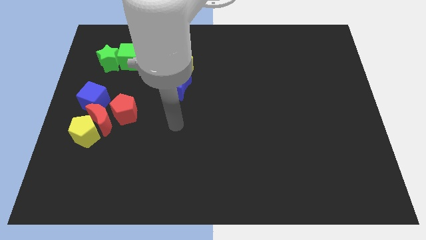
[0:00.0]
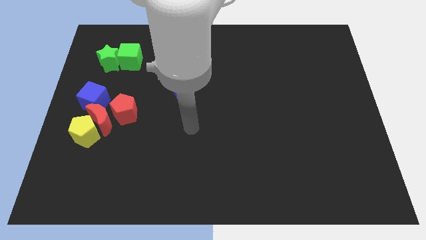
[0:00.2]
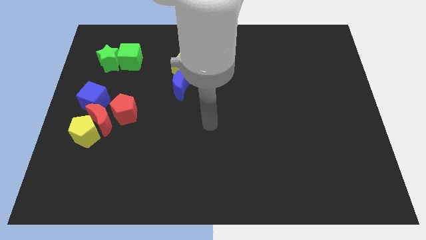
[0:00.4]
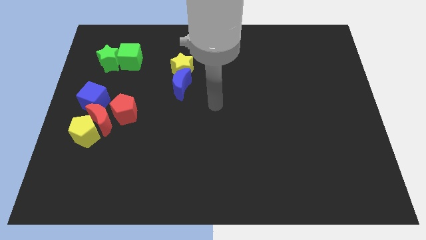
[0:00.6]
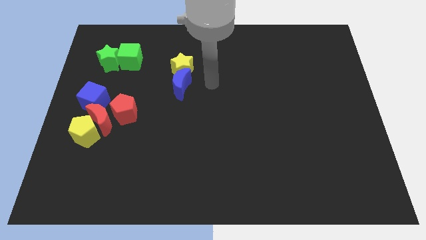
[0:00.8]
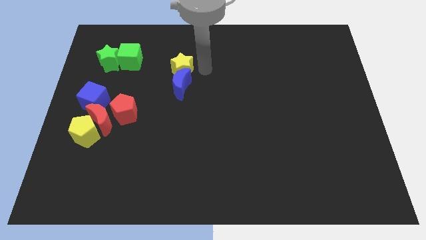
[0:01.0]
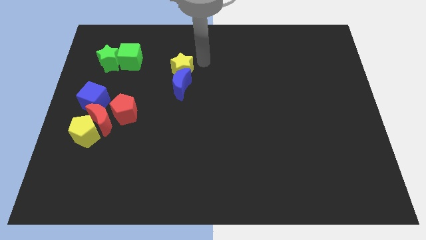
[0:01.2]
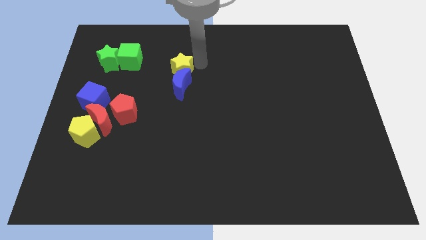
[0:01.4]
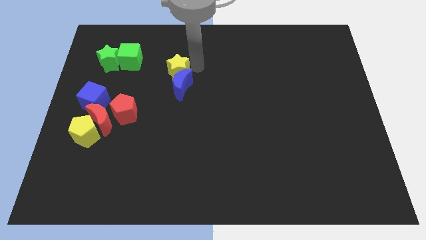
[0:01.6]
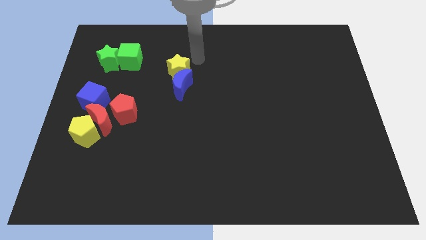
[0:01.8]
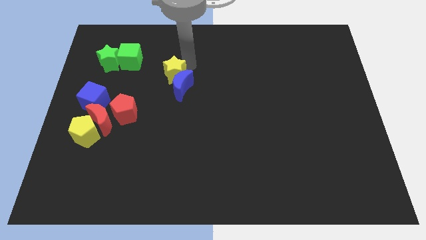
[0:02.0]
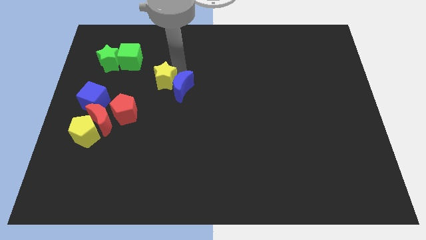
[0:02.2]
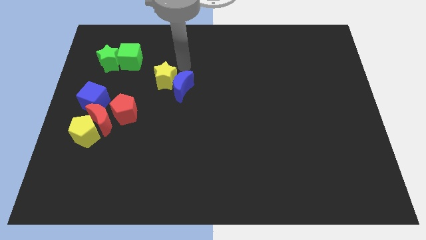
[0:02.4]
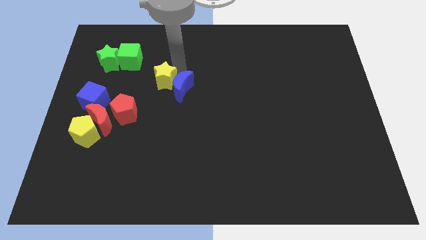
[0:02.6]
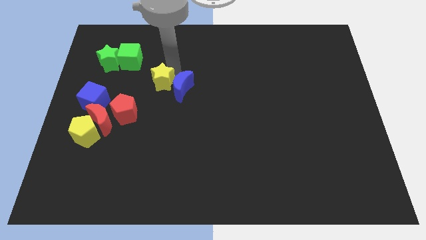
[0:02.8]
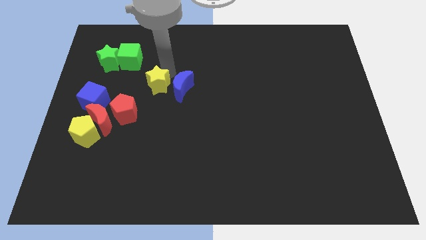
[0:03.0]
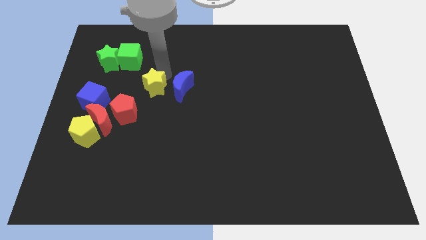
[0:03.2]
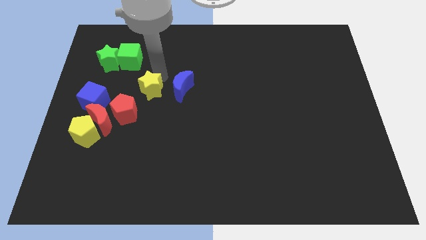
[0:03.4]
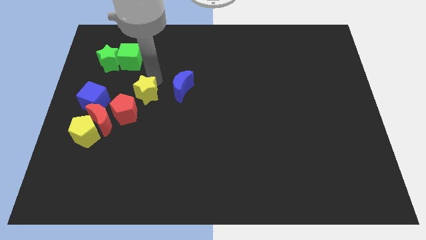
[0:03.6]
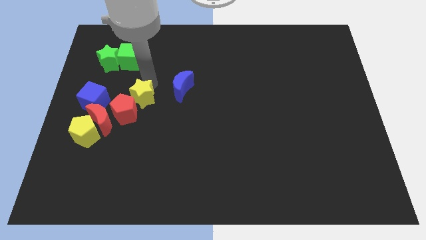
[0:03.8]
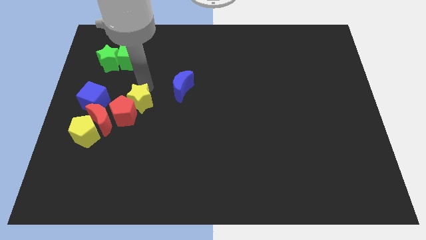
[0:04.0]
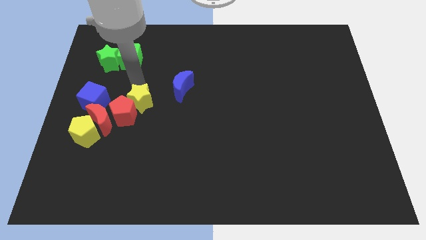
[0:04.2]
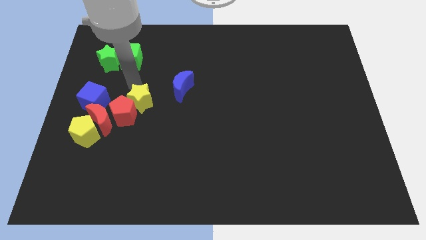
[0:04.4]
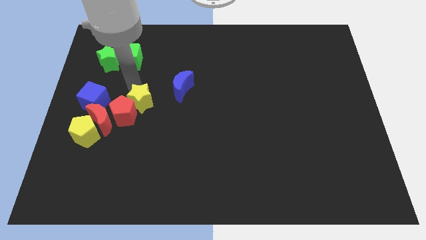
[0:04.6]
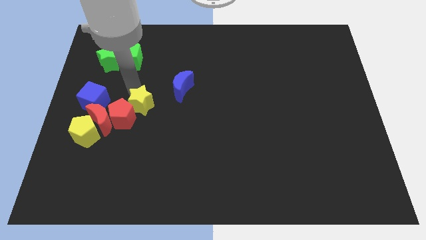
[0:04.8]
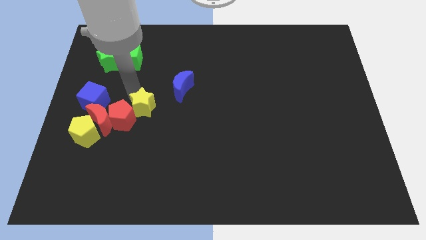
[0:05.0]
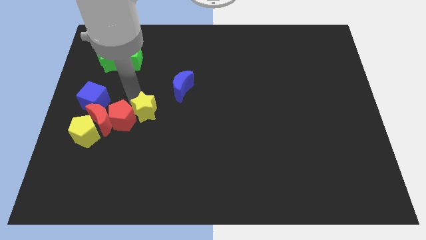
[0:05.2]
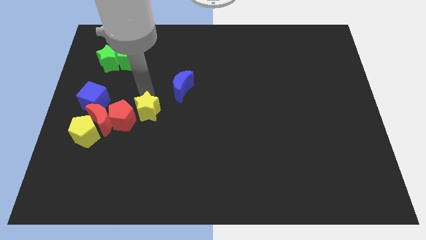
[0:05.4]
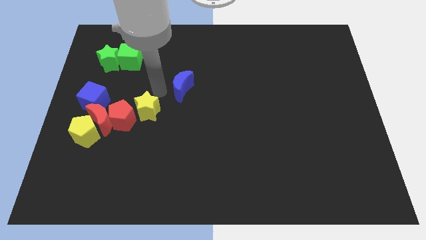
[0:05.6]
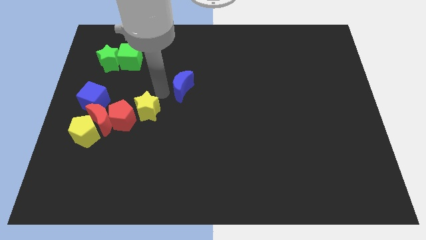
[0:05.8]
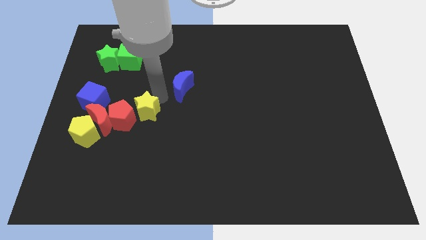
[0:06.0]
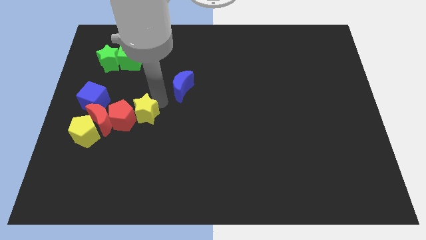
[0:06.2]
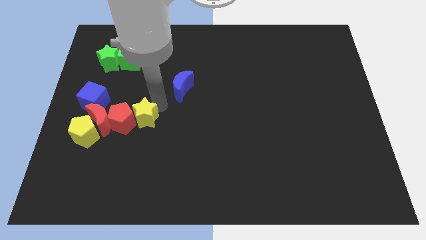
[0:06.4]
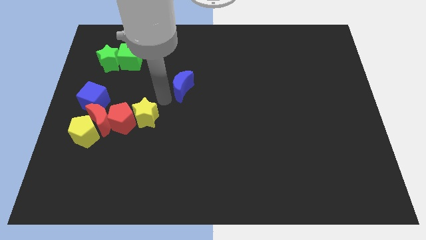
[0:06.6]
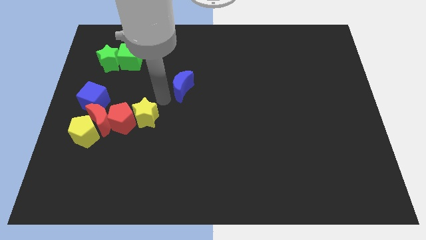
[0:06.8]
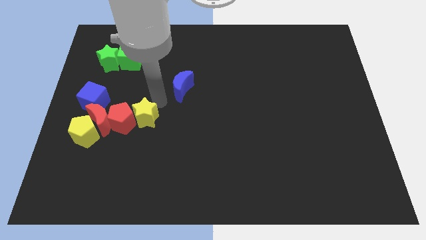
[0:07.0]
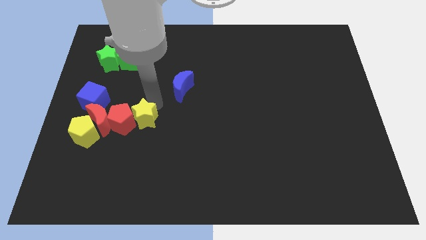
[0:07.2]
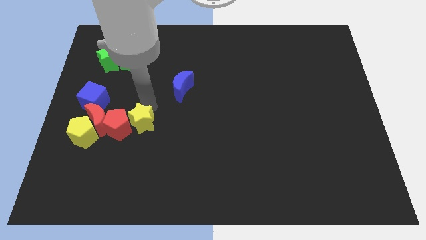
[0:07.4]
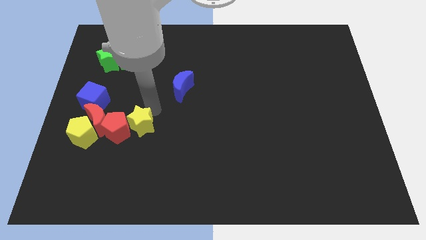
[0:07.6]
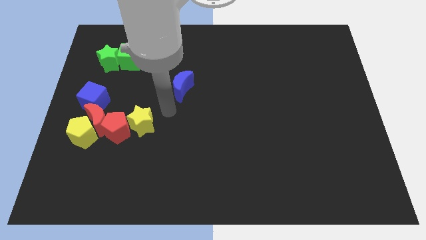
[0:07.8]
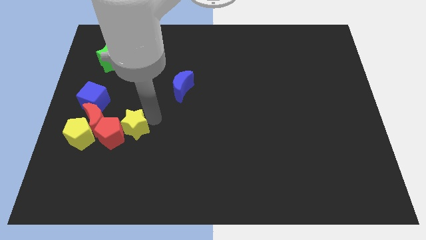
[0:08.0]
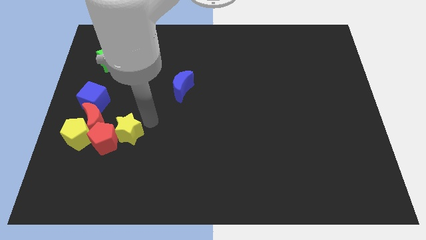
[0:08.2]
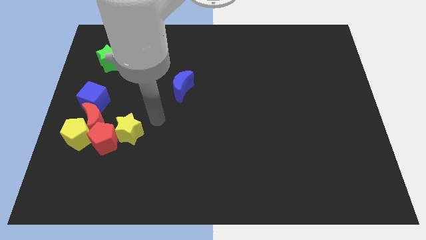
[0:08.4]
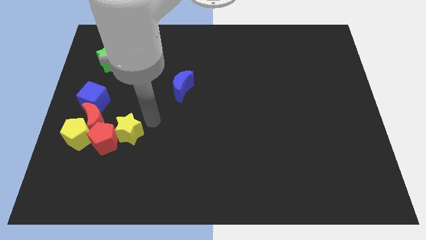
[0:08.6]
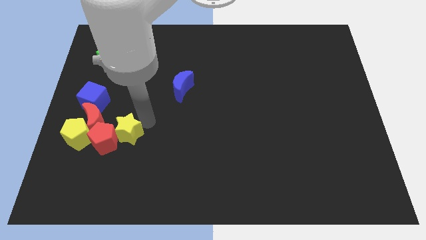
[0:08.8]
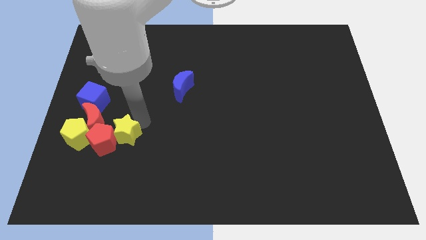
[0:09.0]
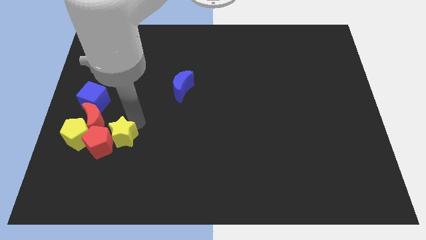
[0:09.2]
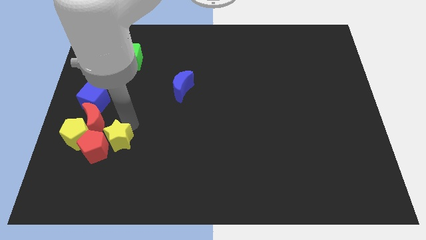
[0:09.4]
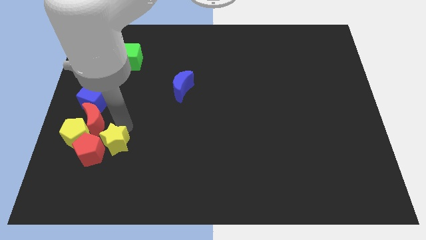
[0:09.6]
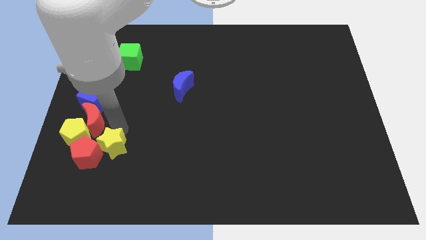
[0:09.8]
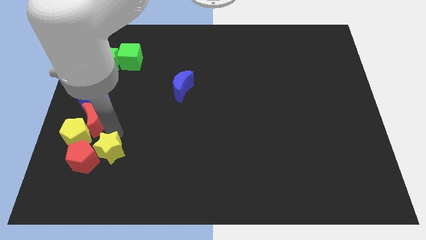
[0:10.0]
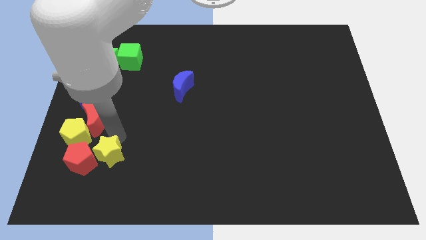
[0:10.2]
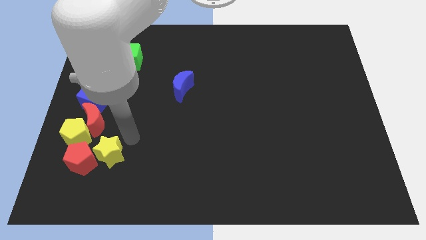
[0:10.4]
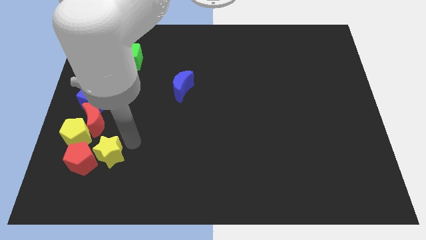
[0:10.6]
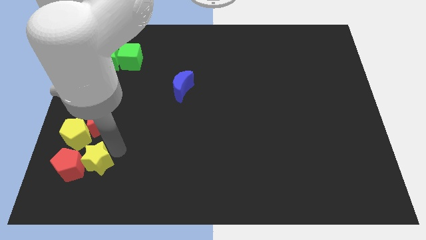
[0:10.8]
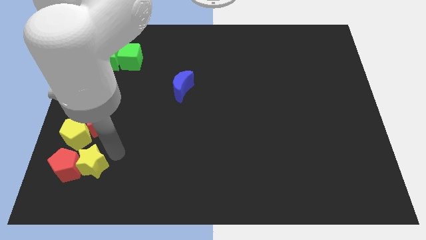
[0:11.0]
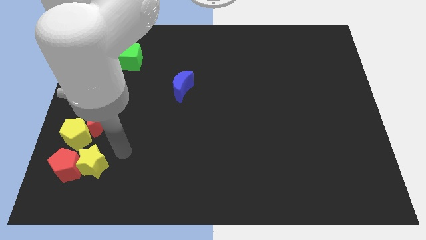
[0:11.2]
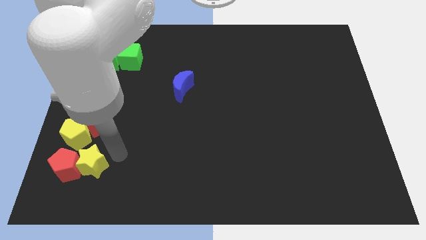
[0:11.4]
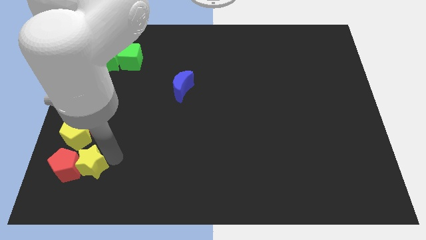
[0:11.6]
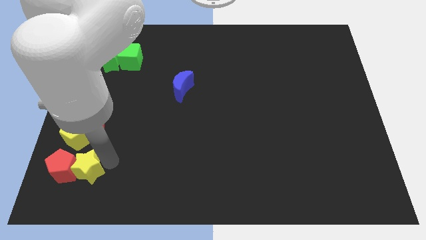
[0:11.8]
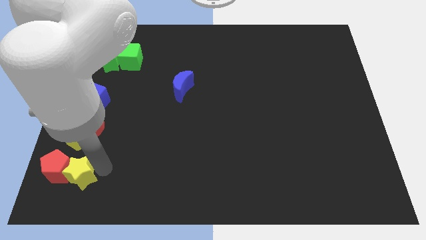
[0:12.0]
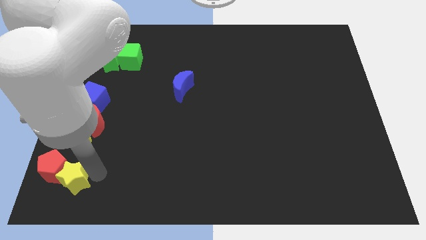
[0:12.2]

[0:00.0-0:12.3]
slide the yellow star to the bottom left corner
